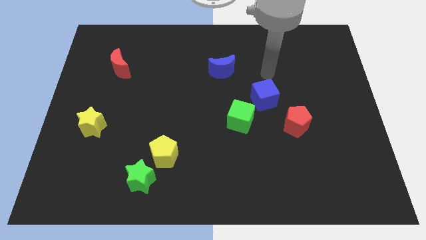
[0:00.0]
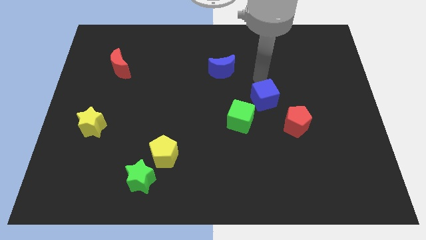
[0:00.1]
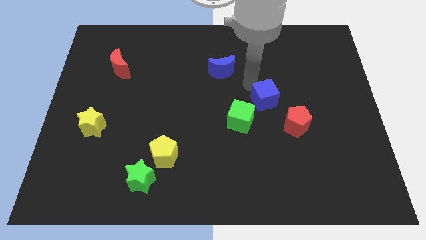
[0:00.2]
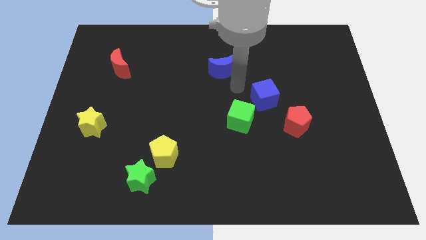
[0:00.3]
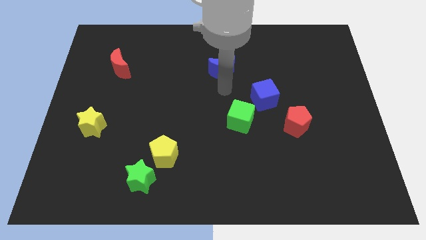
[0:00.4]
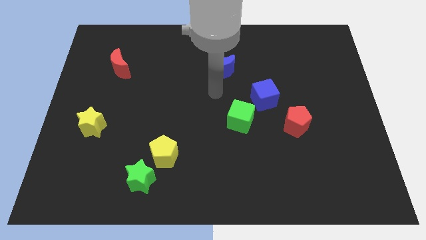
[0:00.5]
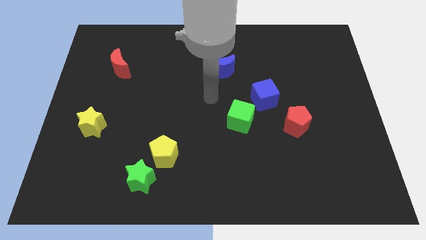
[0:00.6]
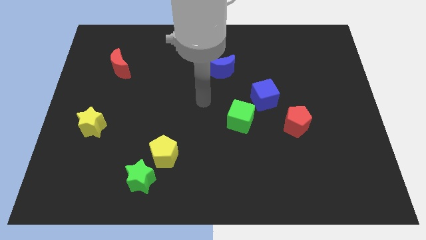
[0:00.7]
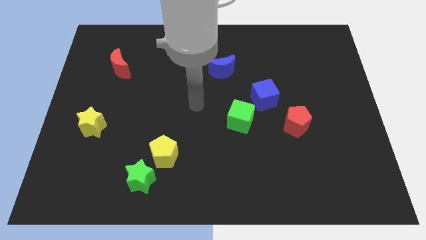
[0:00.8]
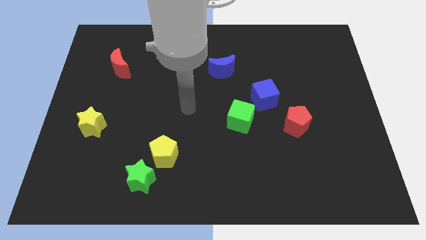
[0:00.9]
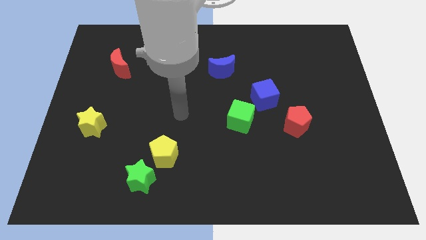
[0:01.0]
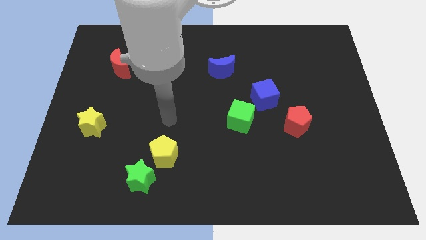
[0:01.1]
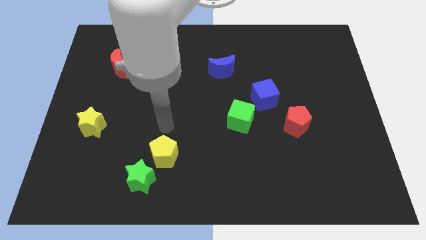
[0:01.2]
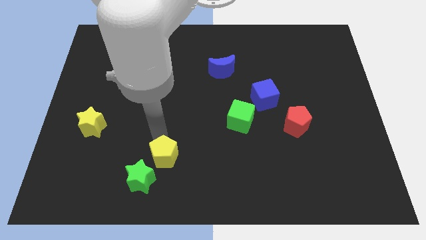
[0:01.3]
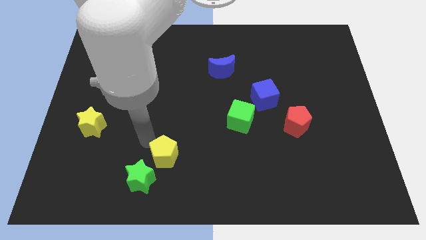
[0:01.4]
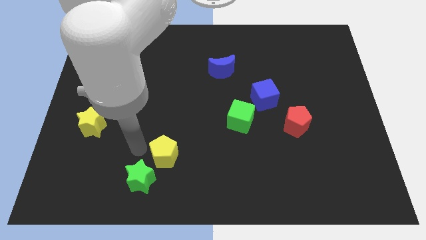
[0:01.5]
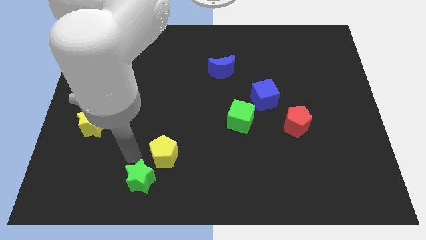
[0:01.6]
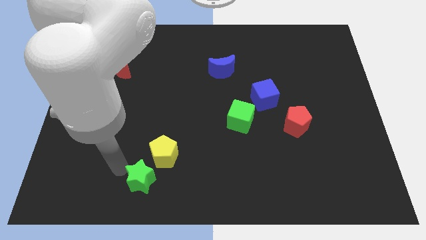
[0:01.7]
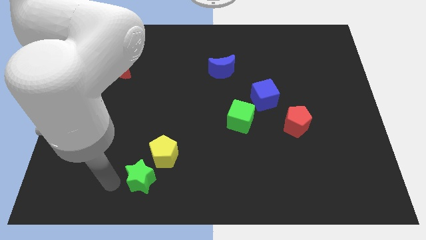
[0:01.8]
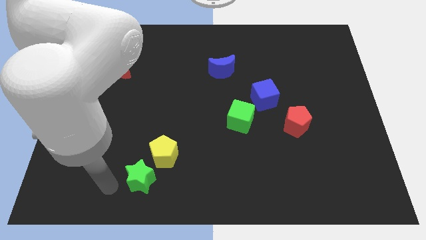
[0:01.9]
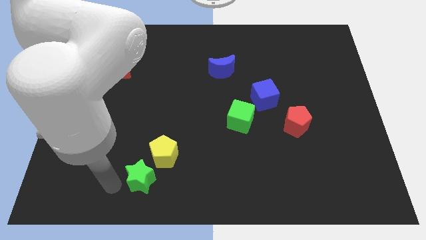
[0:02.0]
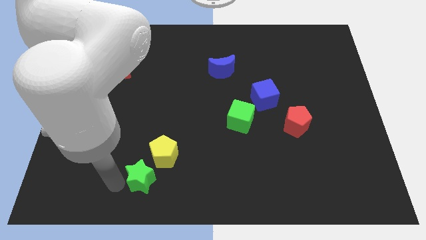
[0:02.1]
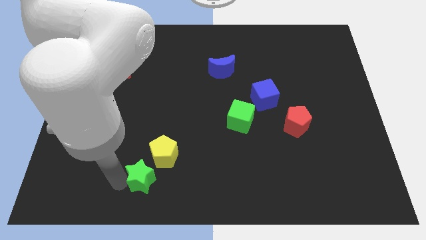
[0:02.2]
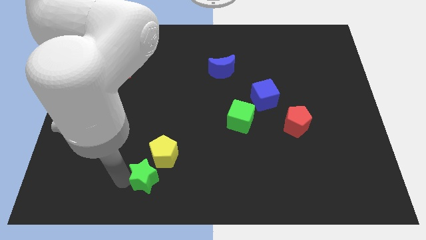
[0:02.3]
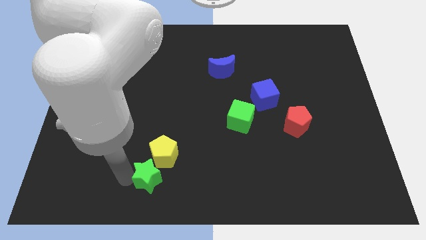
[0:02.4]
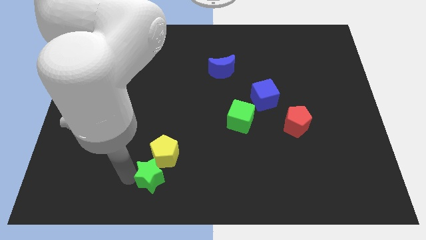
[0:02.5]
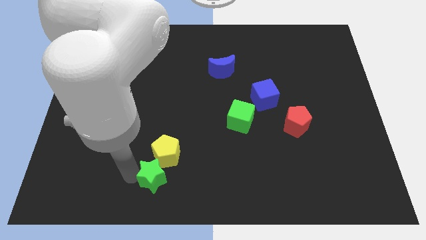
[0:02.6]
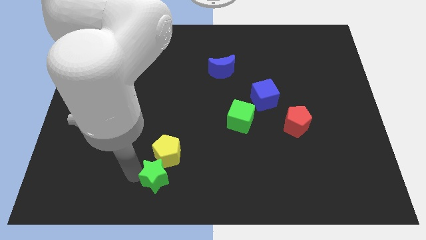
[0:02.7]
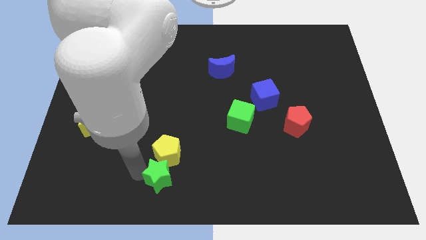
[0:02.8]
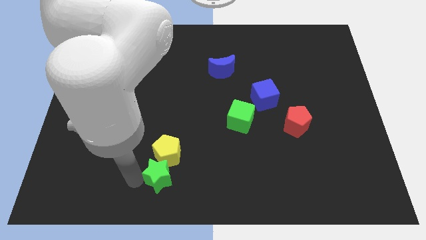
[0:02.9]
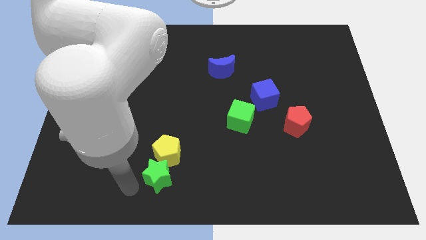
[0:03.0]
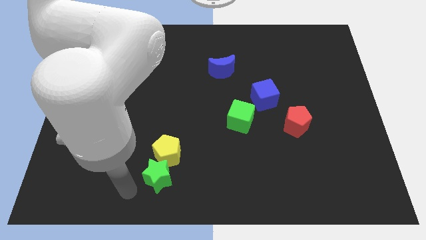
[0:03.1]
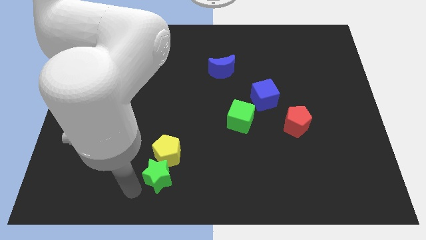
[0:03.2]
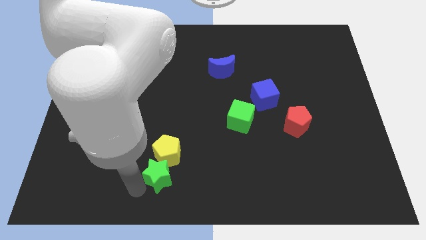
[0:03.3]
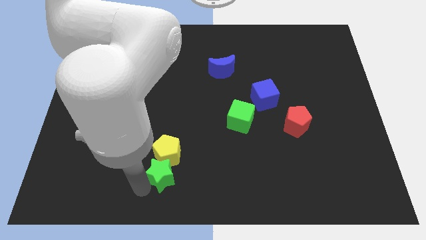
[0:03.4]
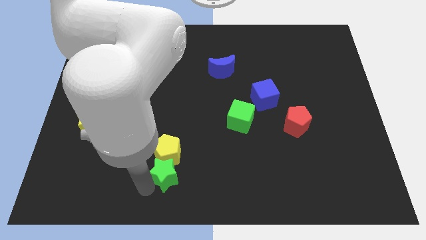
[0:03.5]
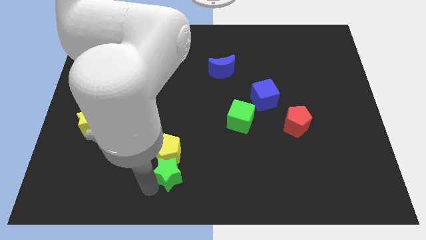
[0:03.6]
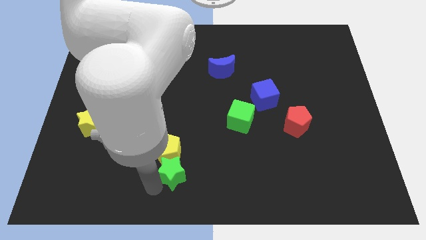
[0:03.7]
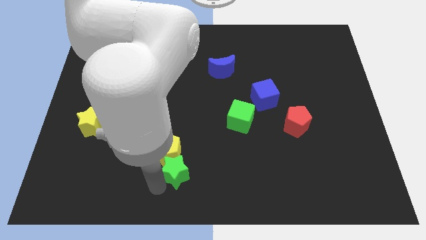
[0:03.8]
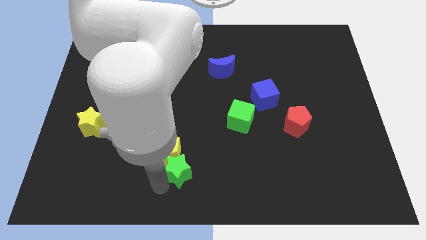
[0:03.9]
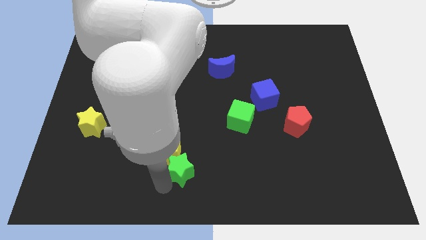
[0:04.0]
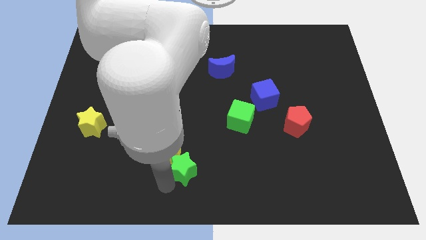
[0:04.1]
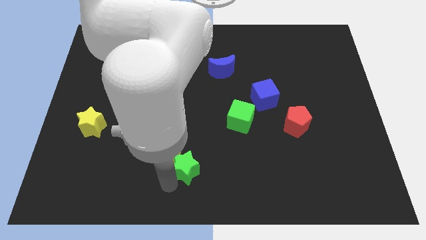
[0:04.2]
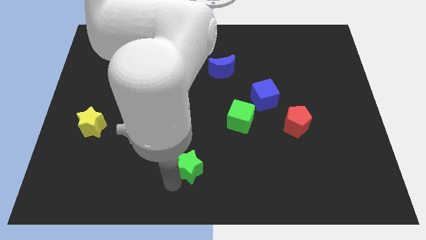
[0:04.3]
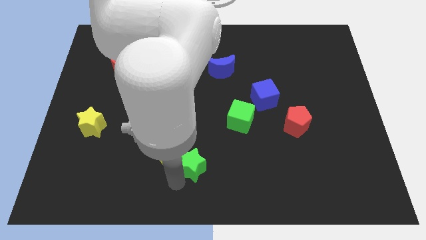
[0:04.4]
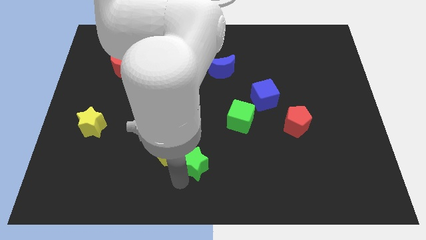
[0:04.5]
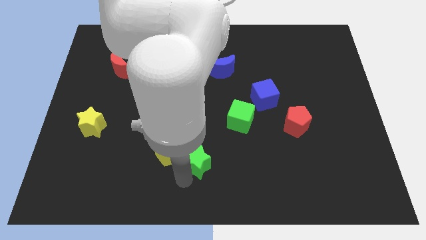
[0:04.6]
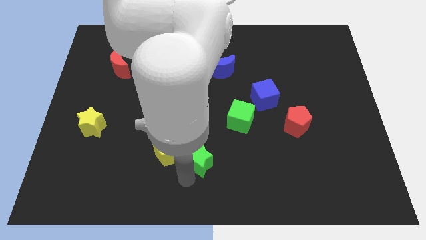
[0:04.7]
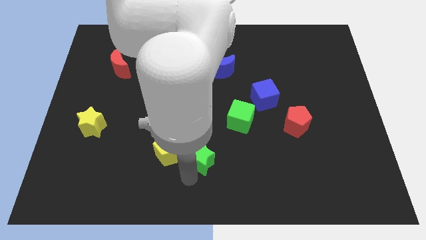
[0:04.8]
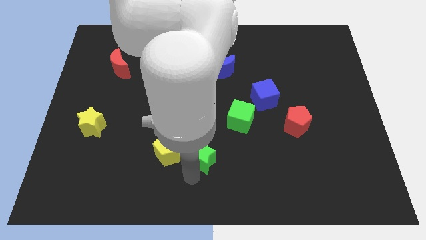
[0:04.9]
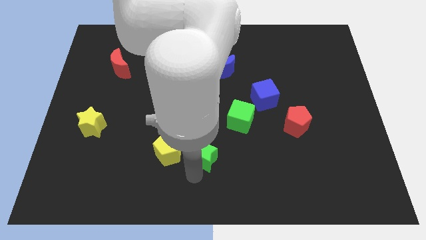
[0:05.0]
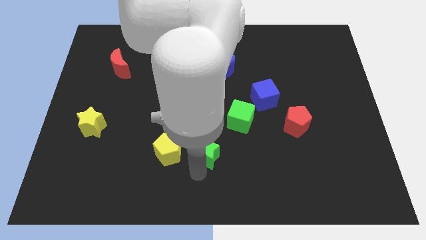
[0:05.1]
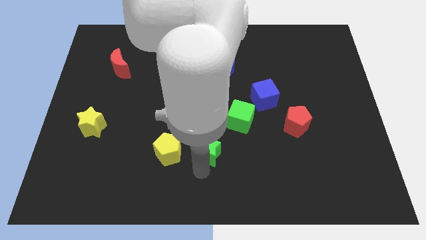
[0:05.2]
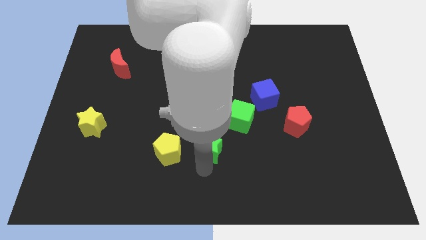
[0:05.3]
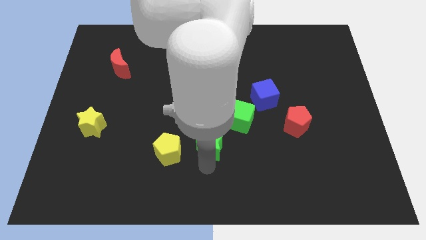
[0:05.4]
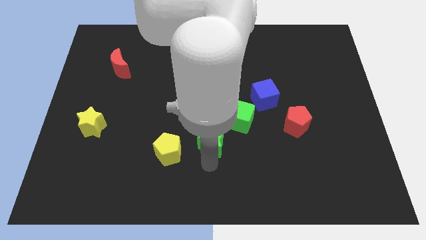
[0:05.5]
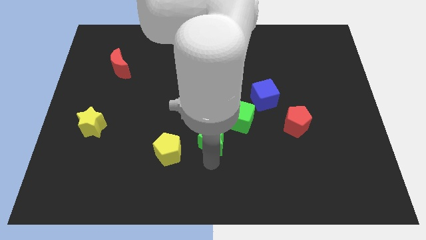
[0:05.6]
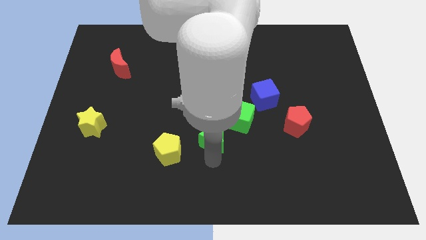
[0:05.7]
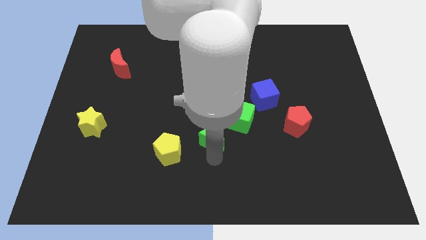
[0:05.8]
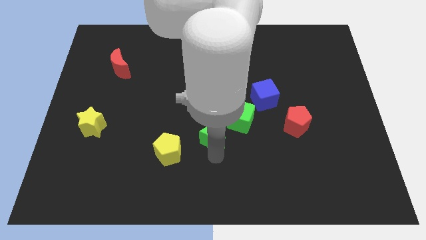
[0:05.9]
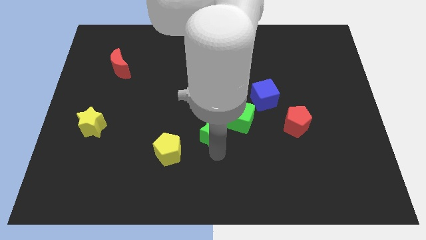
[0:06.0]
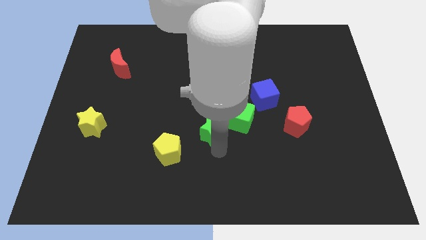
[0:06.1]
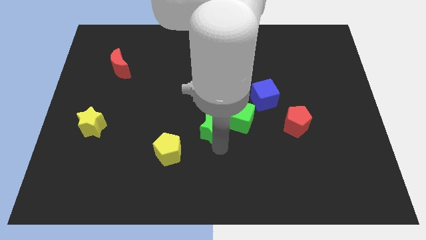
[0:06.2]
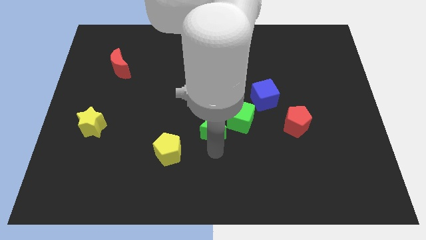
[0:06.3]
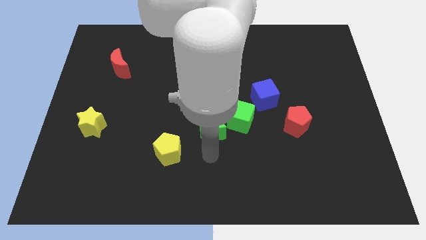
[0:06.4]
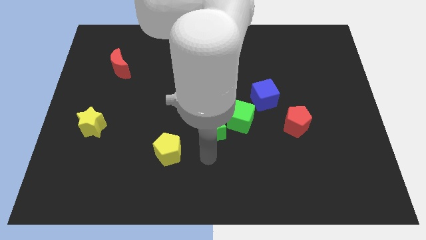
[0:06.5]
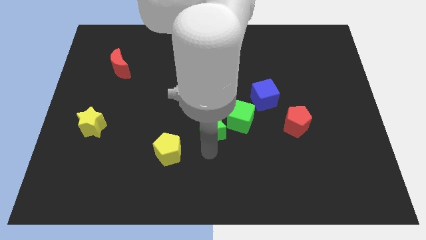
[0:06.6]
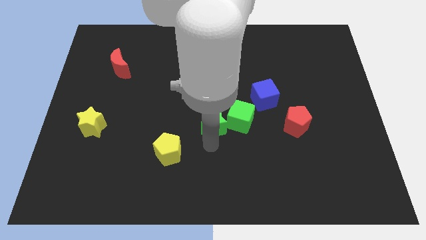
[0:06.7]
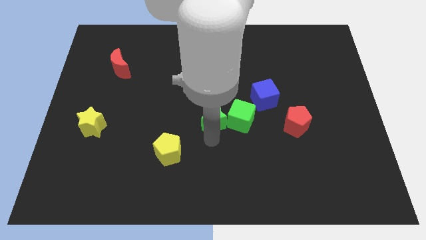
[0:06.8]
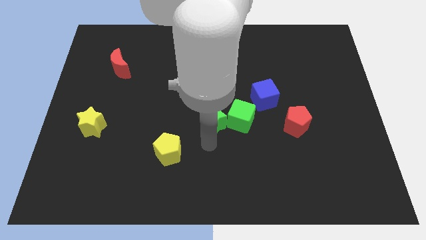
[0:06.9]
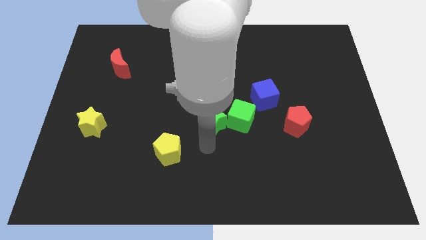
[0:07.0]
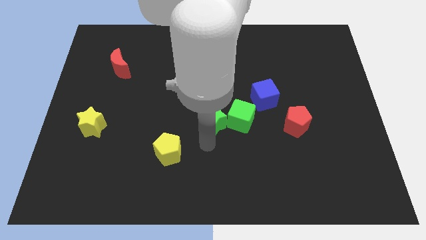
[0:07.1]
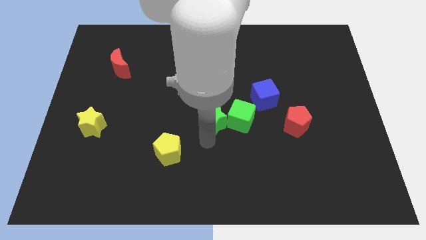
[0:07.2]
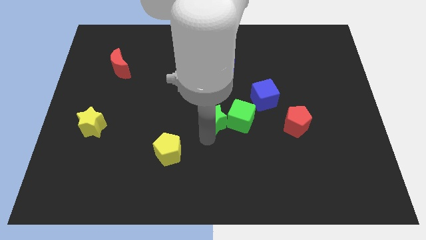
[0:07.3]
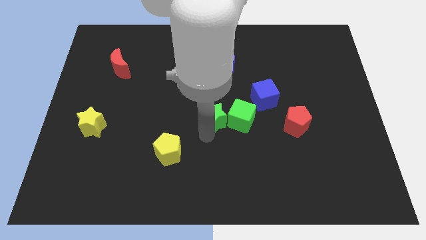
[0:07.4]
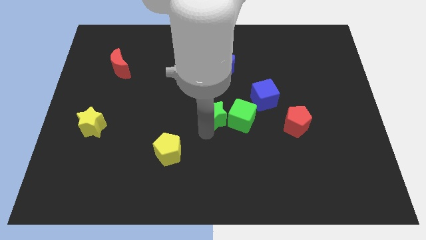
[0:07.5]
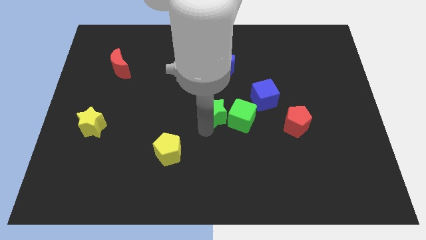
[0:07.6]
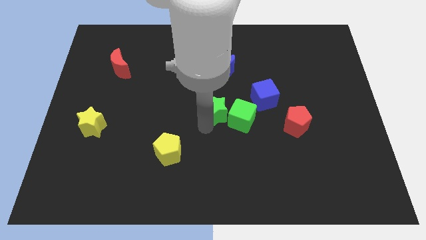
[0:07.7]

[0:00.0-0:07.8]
put the green star to the left of the blue cube

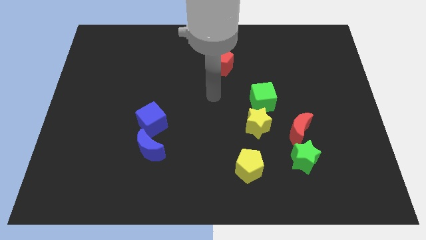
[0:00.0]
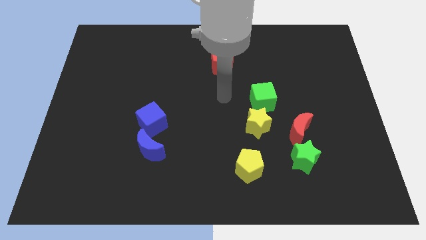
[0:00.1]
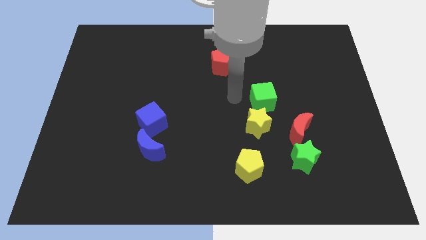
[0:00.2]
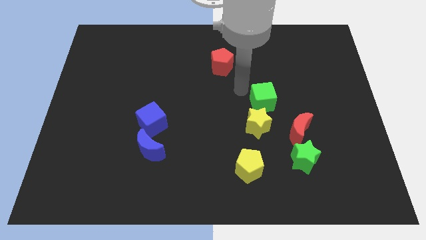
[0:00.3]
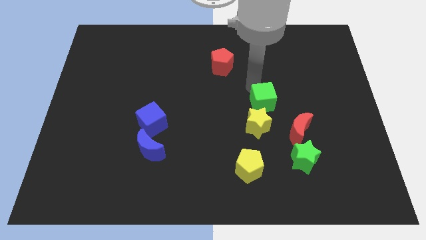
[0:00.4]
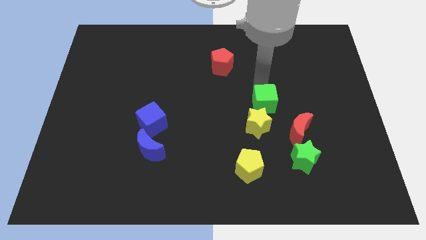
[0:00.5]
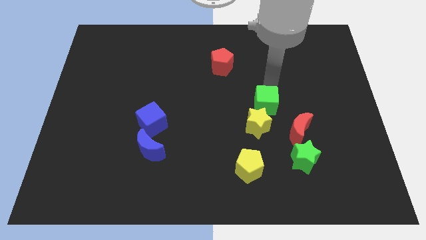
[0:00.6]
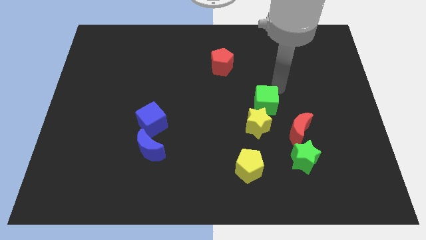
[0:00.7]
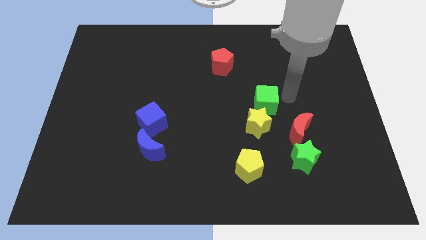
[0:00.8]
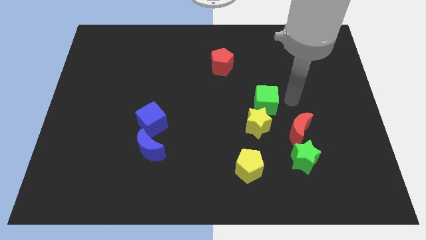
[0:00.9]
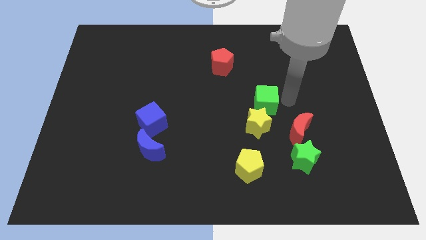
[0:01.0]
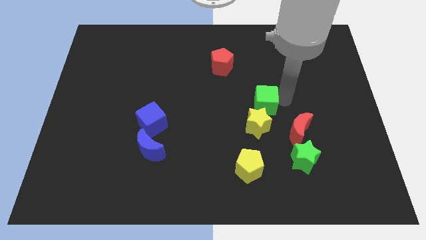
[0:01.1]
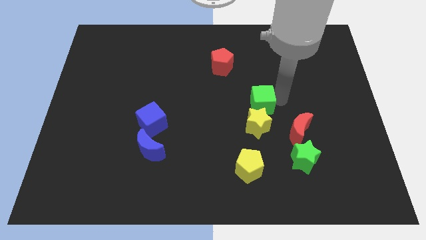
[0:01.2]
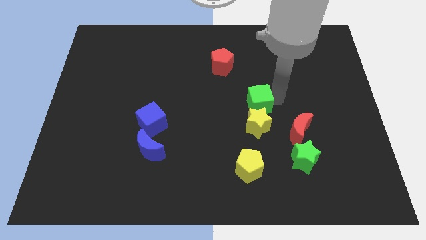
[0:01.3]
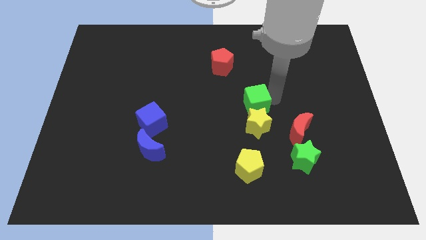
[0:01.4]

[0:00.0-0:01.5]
push the green cube to the top left side of the yellow star
